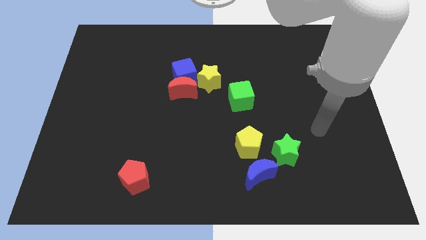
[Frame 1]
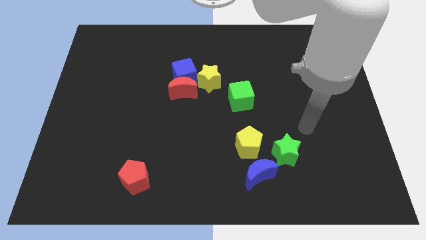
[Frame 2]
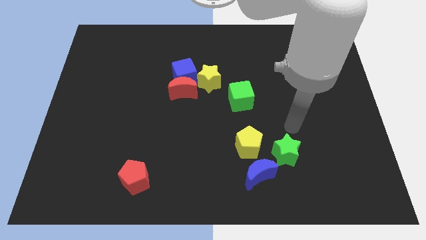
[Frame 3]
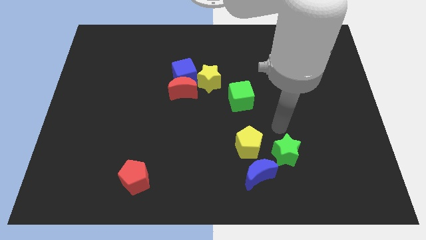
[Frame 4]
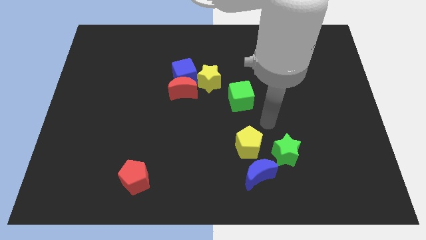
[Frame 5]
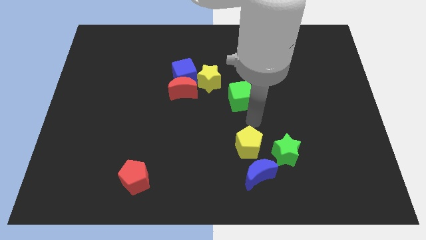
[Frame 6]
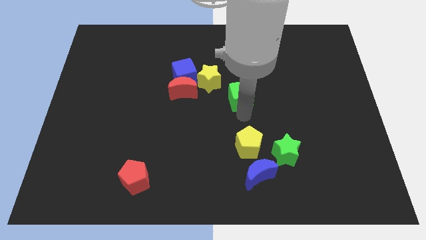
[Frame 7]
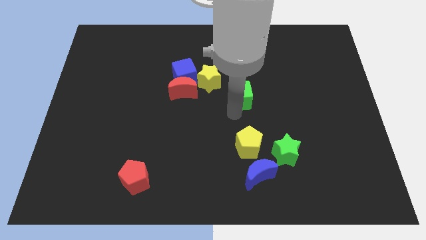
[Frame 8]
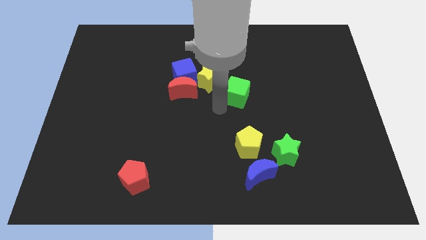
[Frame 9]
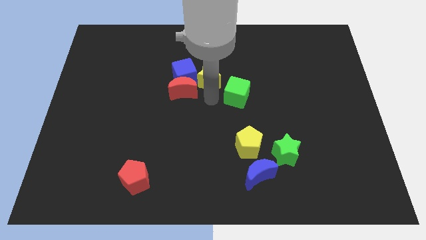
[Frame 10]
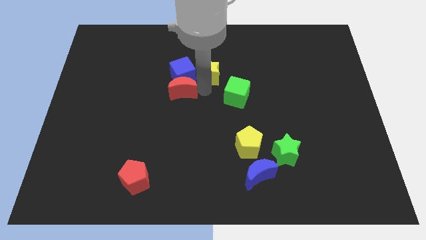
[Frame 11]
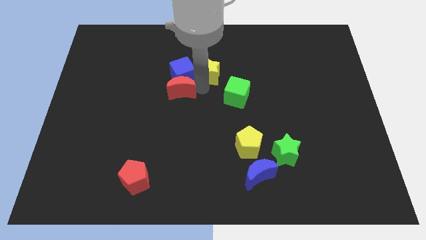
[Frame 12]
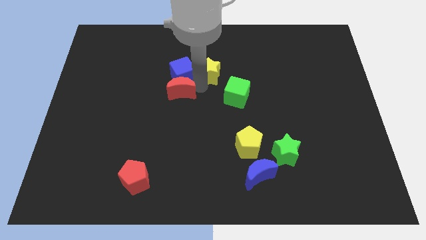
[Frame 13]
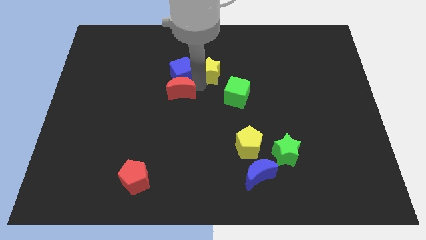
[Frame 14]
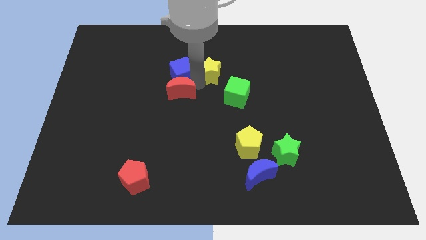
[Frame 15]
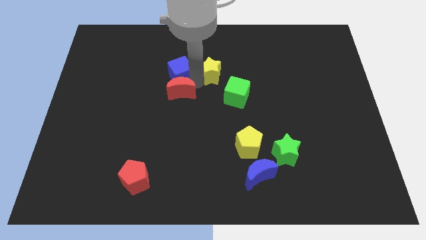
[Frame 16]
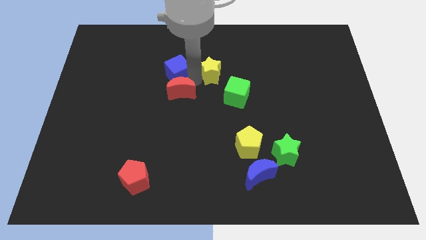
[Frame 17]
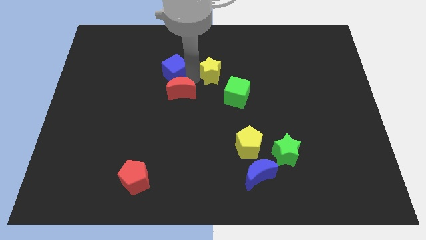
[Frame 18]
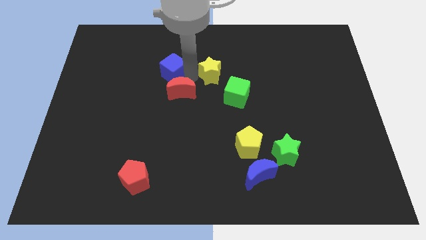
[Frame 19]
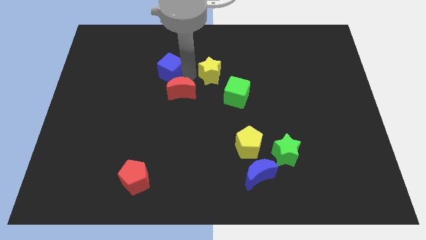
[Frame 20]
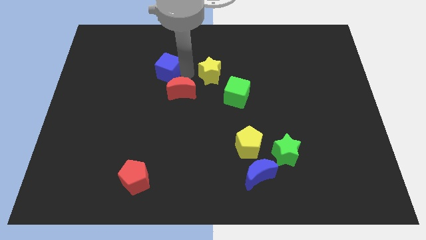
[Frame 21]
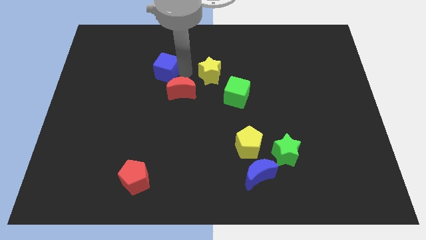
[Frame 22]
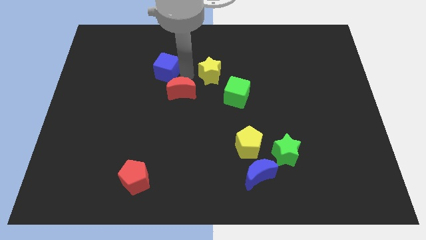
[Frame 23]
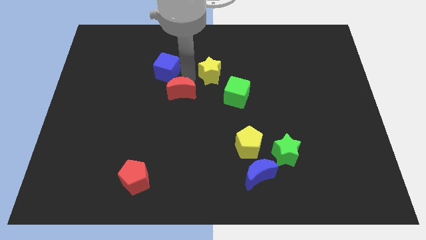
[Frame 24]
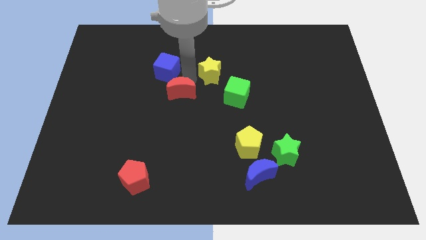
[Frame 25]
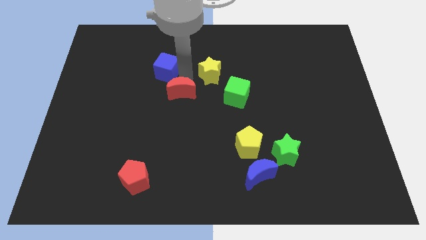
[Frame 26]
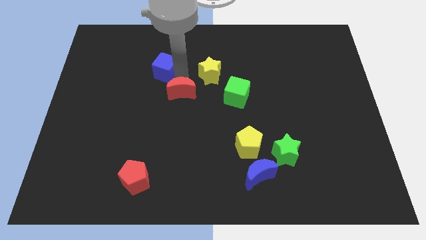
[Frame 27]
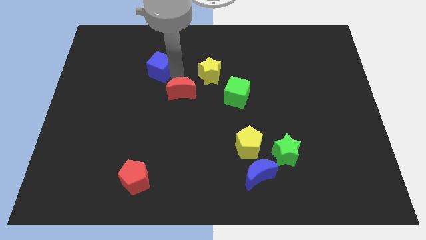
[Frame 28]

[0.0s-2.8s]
separate the blue cube from the red moon and yellow star

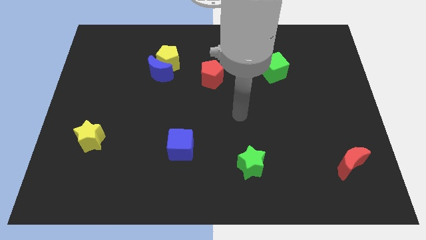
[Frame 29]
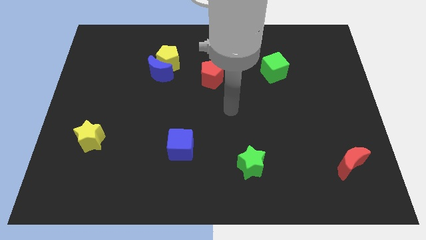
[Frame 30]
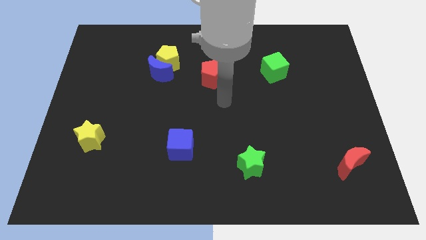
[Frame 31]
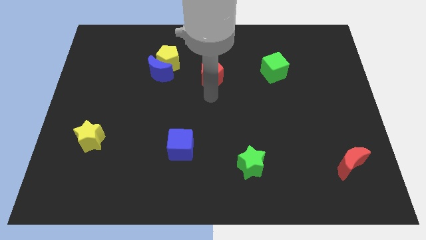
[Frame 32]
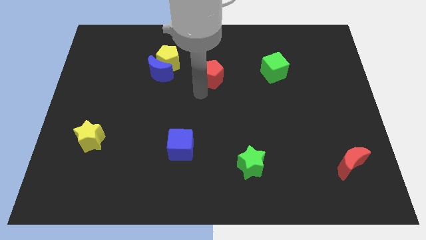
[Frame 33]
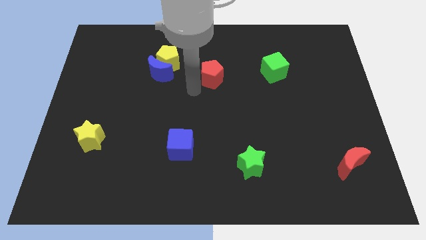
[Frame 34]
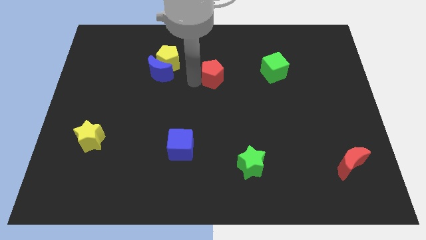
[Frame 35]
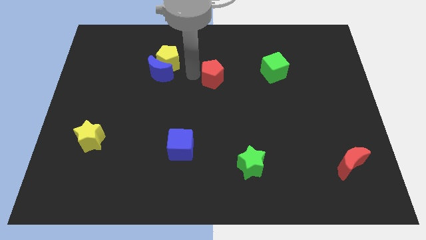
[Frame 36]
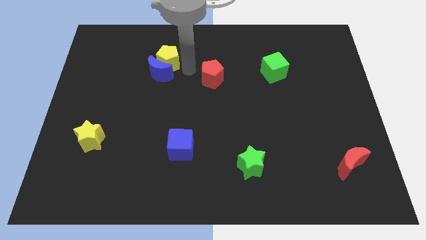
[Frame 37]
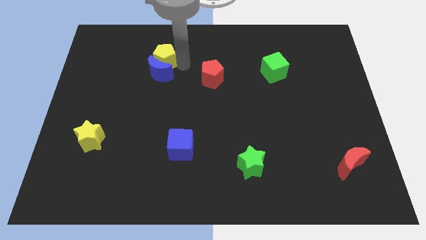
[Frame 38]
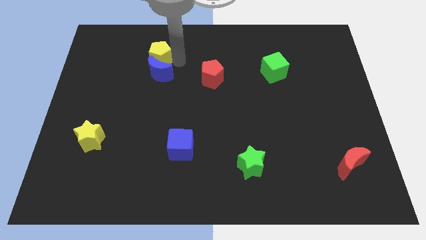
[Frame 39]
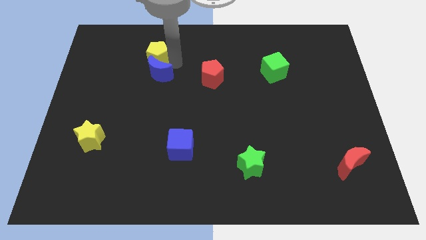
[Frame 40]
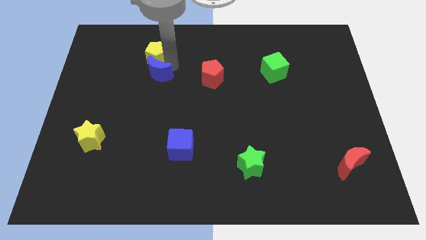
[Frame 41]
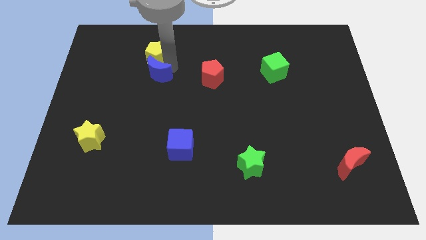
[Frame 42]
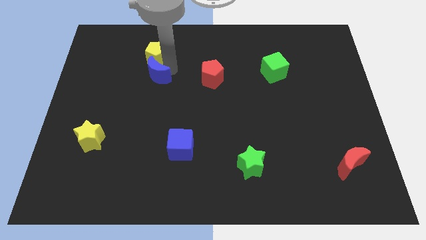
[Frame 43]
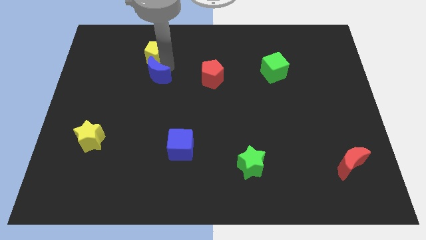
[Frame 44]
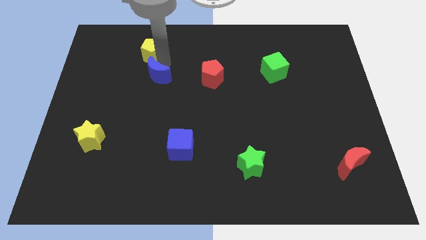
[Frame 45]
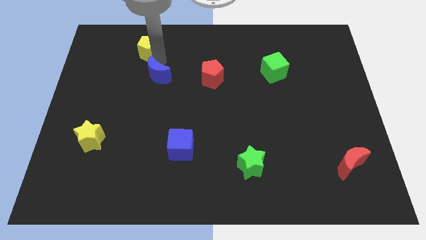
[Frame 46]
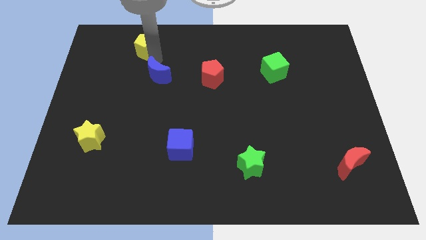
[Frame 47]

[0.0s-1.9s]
separate the blue moon from the yellow pentagon

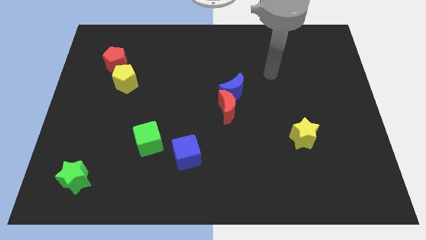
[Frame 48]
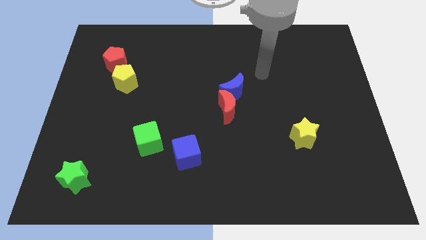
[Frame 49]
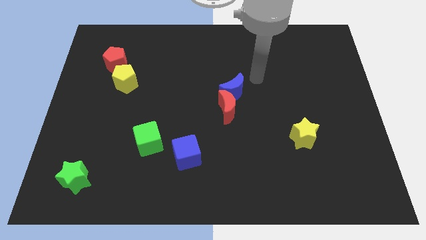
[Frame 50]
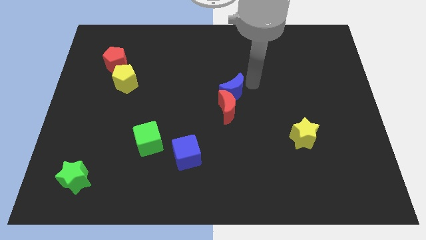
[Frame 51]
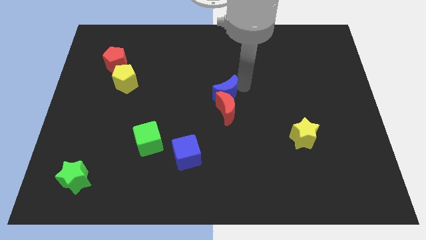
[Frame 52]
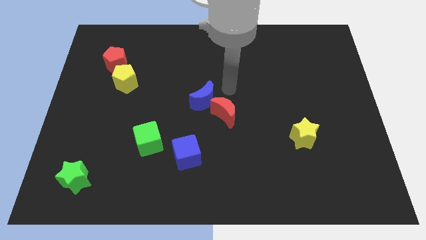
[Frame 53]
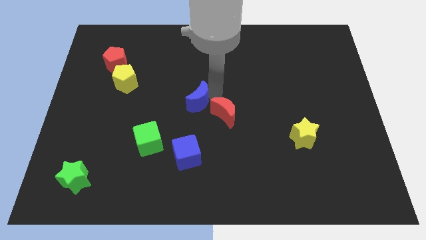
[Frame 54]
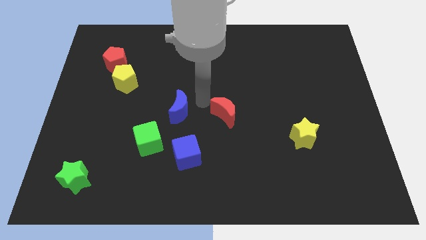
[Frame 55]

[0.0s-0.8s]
separate the red moon from the blue moon

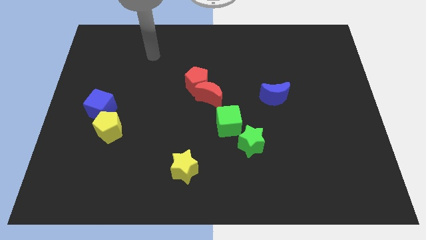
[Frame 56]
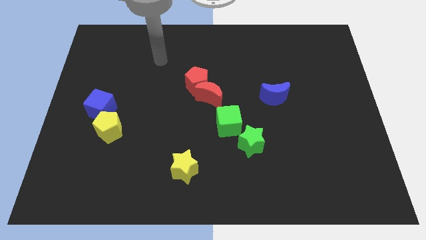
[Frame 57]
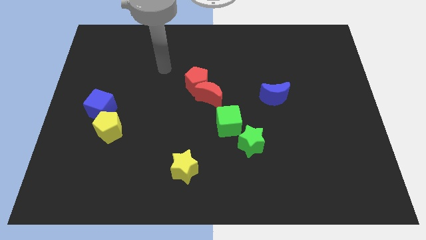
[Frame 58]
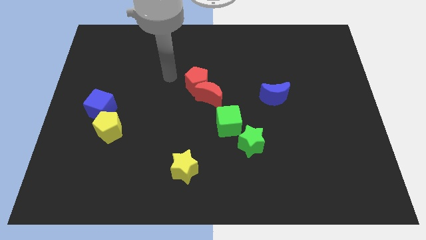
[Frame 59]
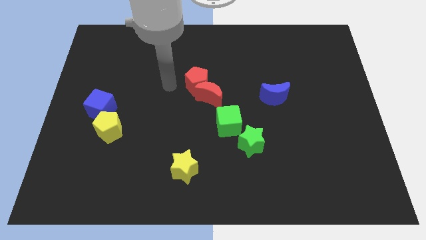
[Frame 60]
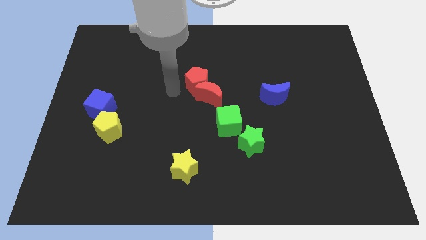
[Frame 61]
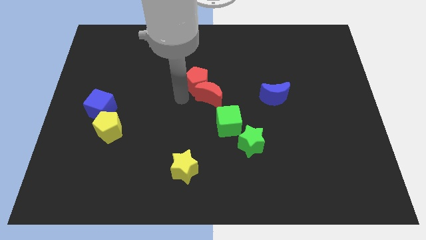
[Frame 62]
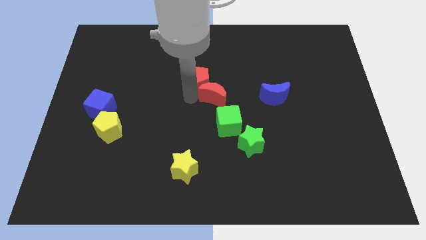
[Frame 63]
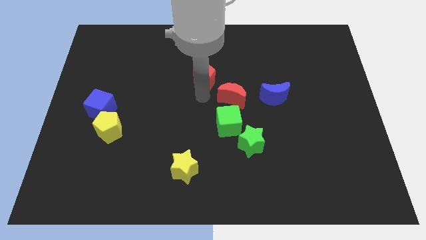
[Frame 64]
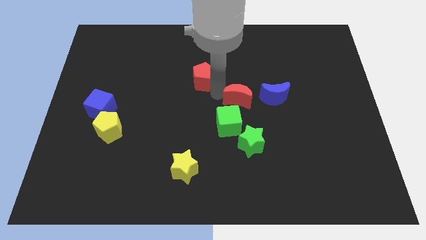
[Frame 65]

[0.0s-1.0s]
pull the red pentagon apart from the red moon

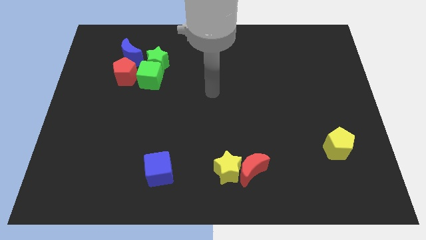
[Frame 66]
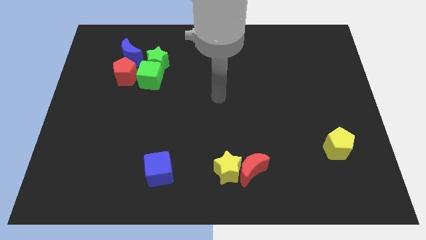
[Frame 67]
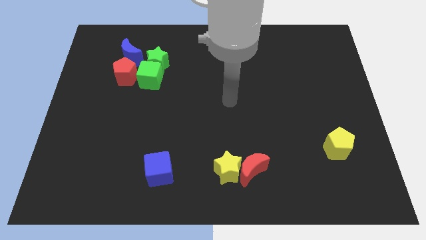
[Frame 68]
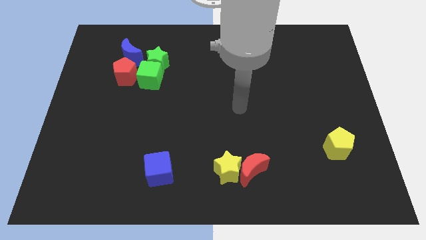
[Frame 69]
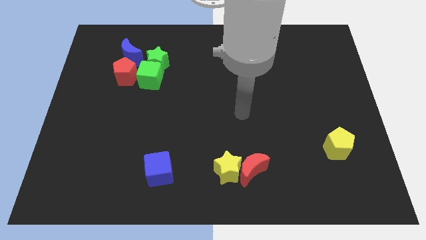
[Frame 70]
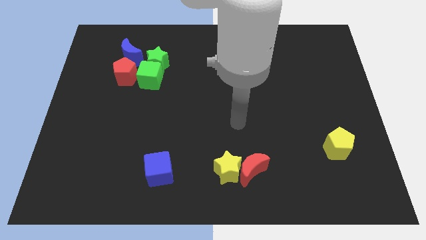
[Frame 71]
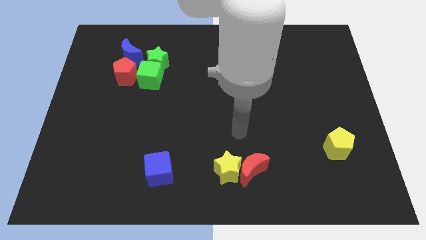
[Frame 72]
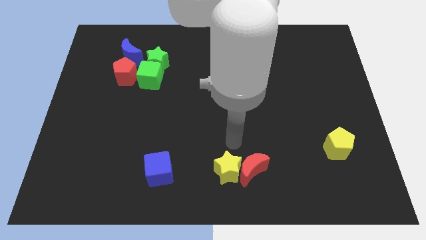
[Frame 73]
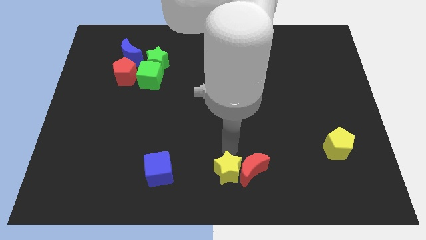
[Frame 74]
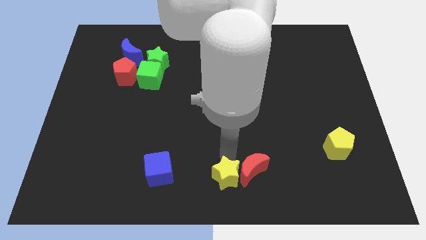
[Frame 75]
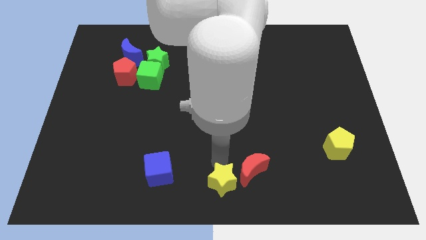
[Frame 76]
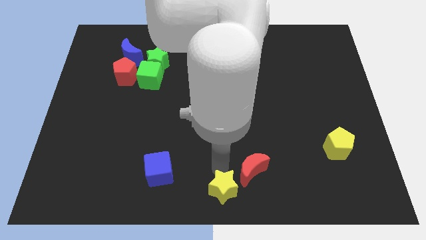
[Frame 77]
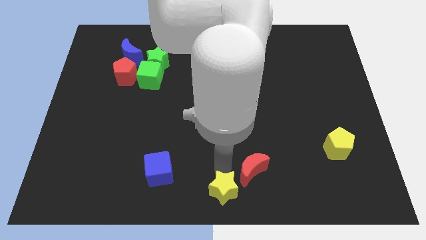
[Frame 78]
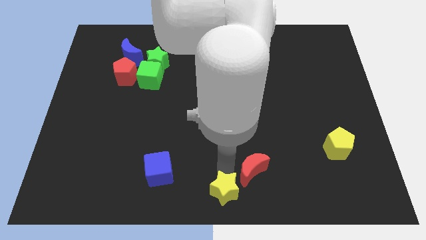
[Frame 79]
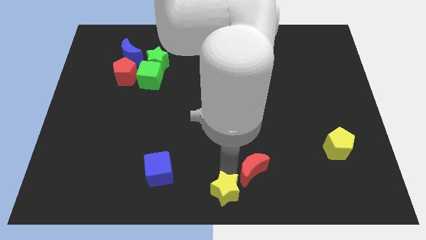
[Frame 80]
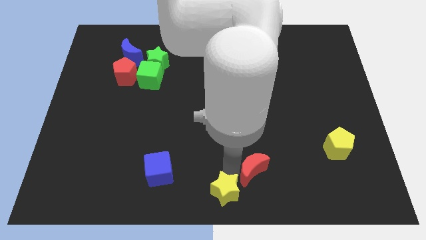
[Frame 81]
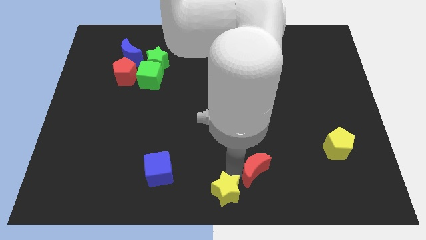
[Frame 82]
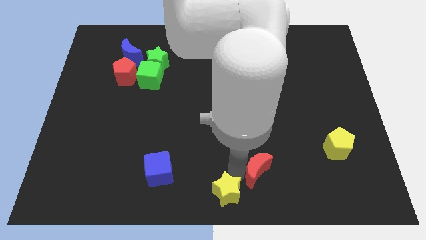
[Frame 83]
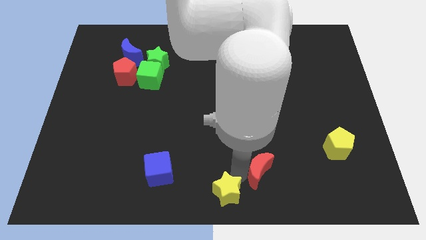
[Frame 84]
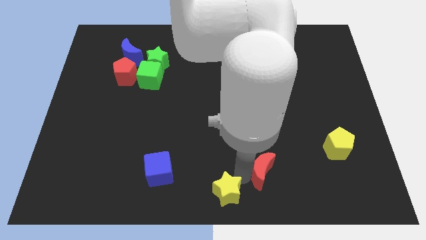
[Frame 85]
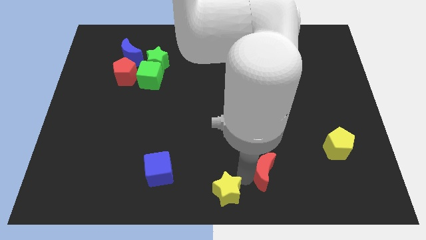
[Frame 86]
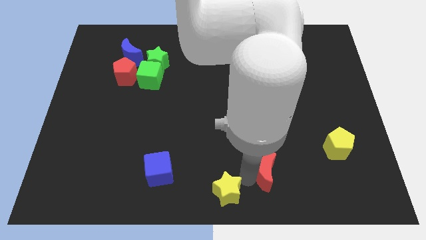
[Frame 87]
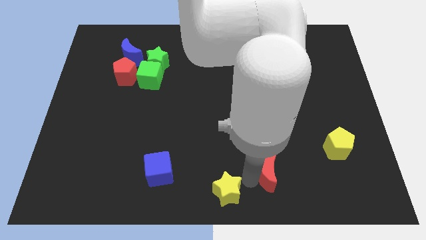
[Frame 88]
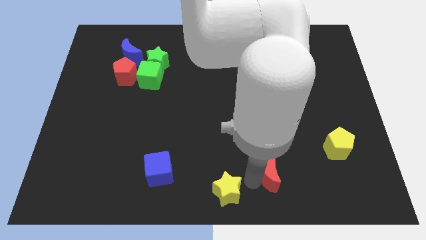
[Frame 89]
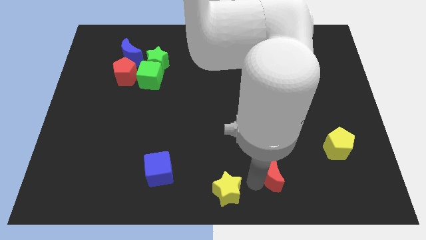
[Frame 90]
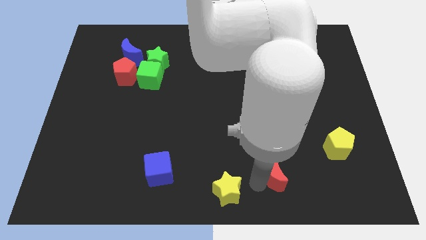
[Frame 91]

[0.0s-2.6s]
move the red moon away from the yellow star
